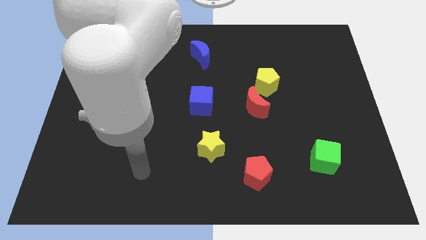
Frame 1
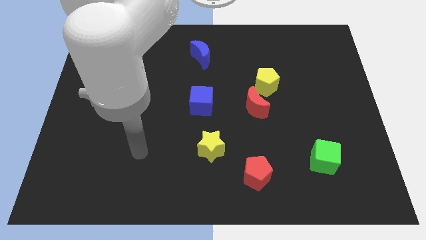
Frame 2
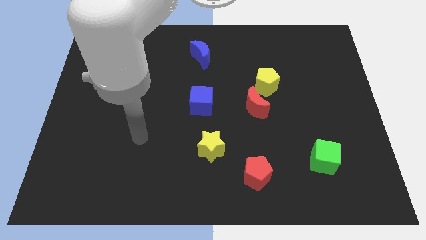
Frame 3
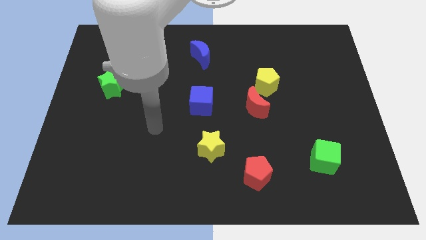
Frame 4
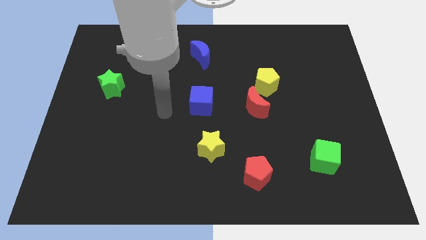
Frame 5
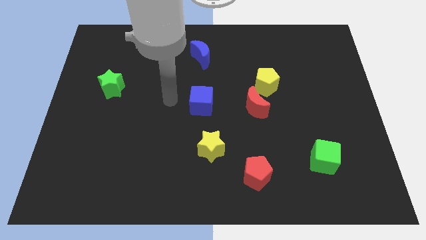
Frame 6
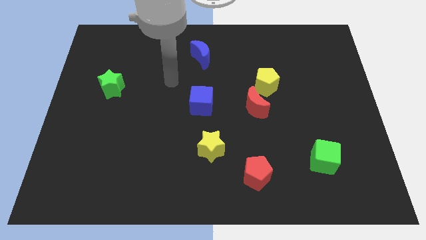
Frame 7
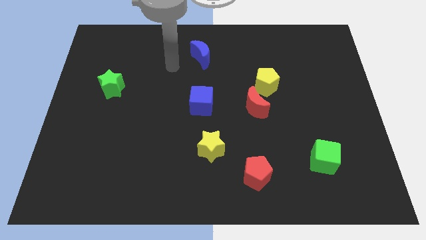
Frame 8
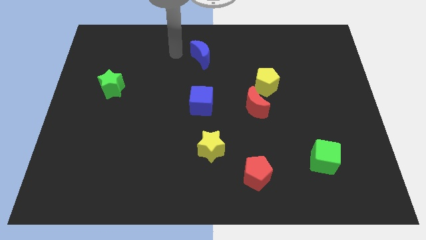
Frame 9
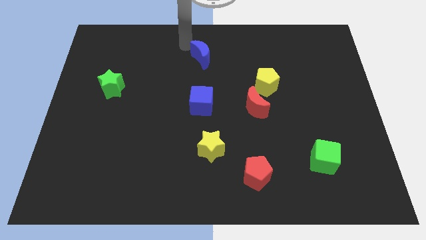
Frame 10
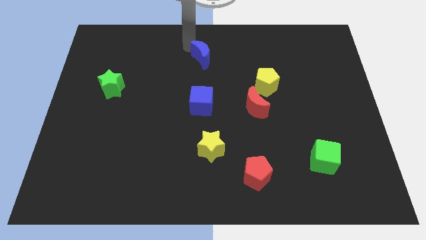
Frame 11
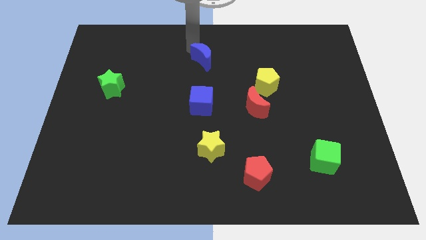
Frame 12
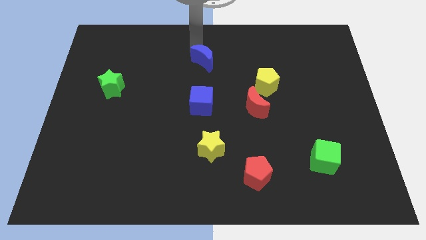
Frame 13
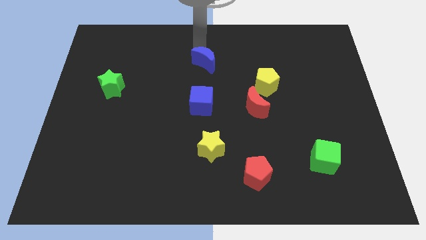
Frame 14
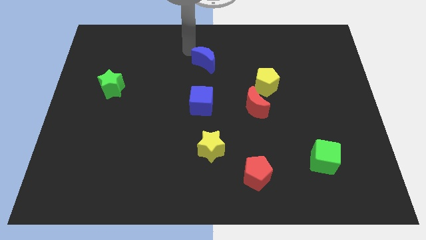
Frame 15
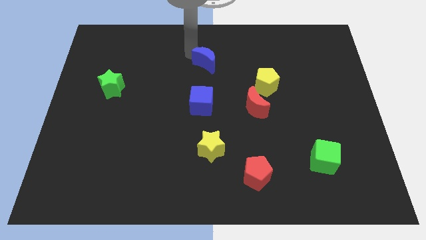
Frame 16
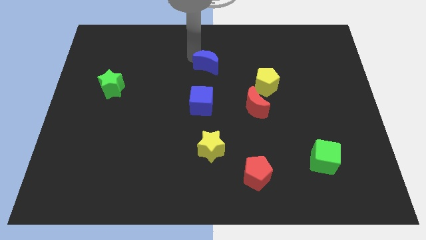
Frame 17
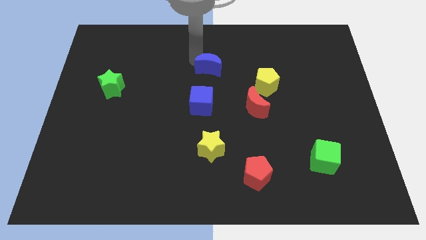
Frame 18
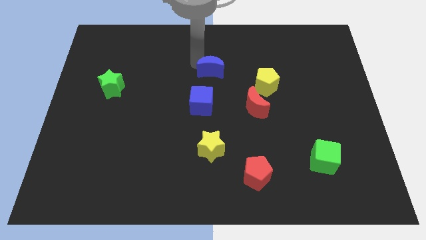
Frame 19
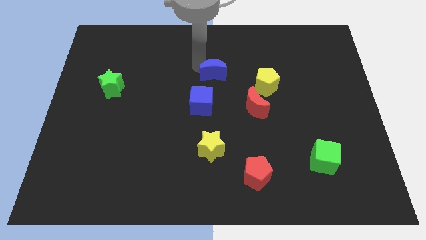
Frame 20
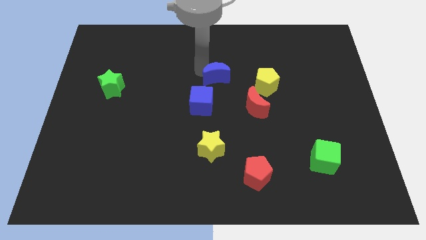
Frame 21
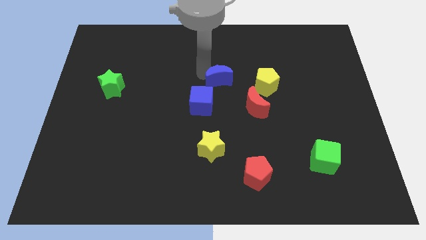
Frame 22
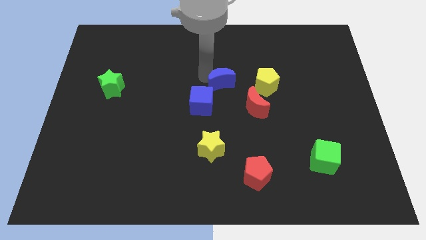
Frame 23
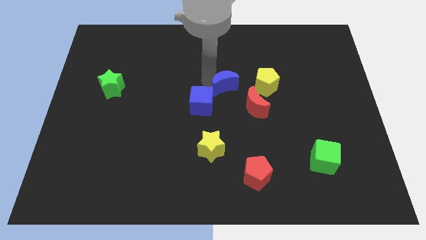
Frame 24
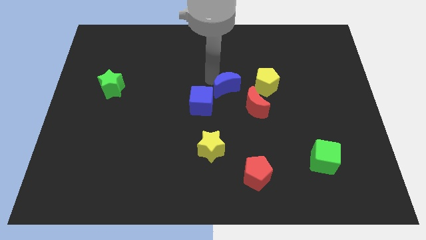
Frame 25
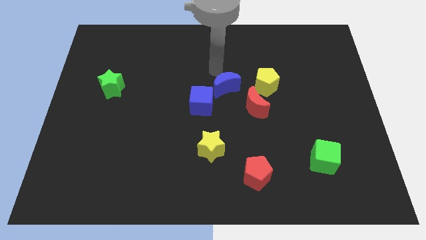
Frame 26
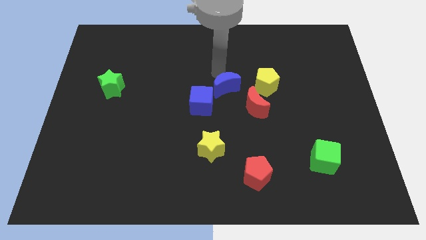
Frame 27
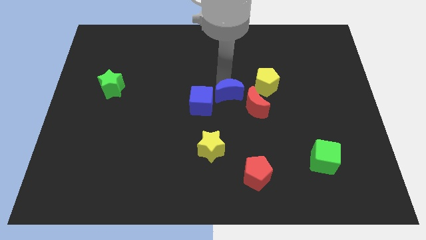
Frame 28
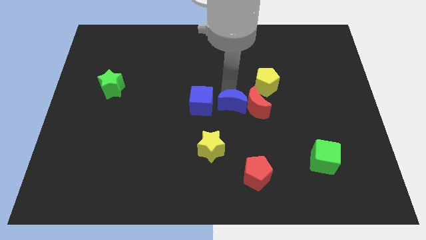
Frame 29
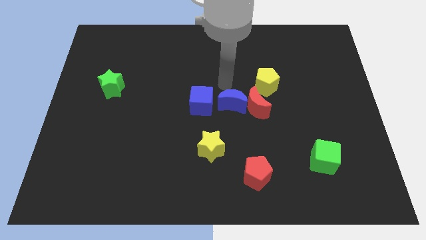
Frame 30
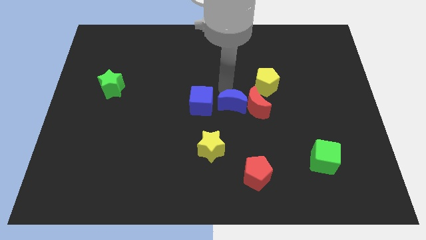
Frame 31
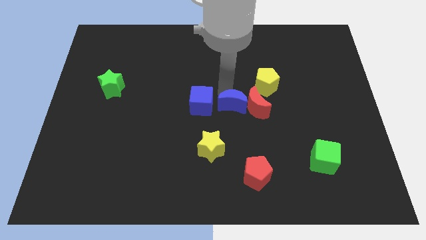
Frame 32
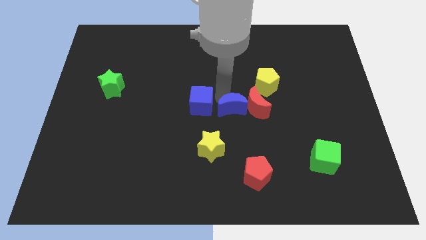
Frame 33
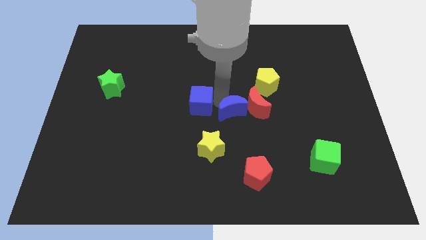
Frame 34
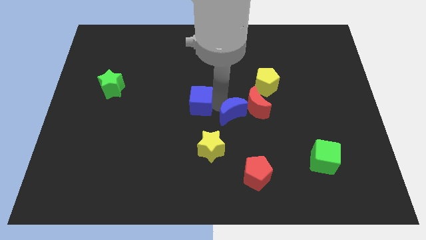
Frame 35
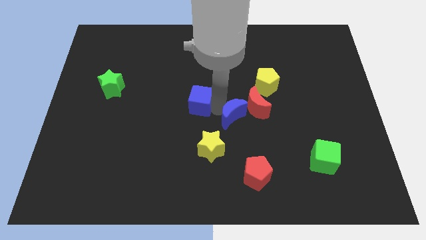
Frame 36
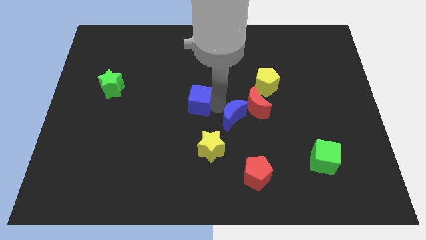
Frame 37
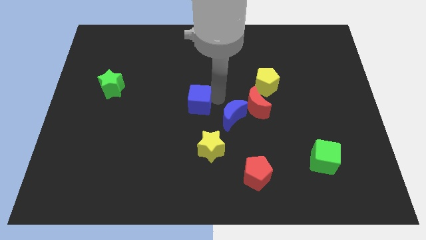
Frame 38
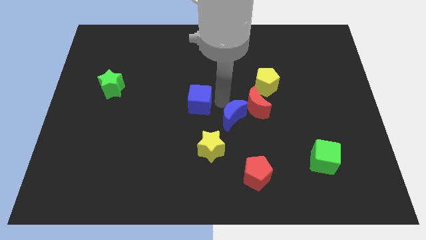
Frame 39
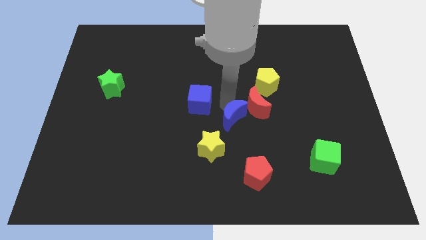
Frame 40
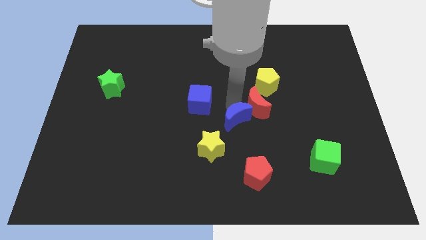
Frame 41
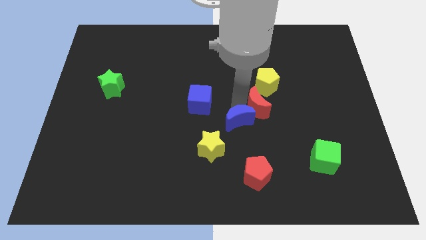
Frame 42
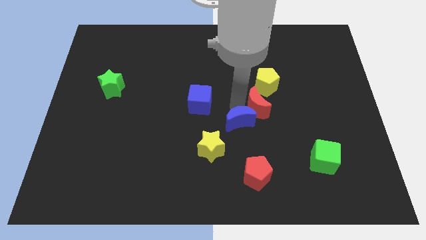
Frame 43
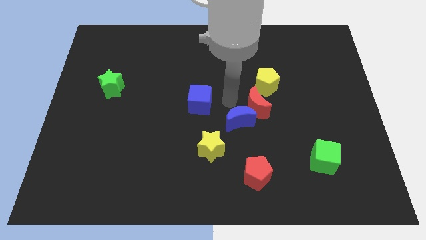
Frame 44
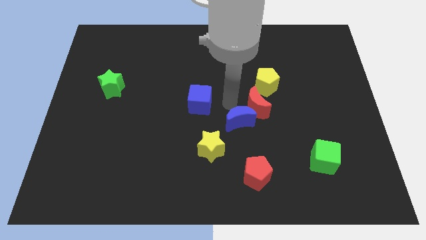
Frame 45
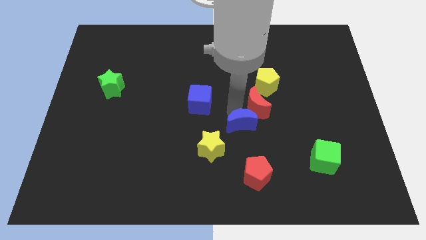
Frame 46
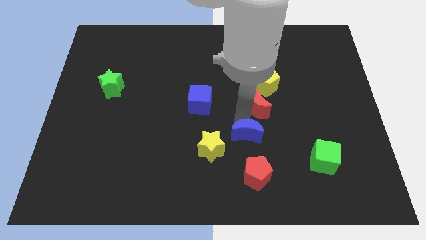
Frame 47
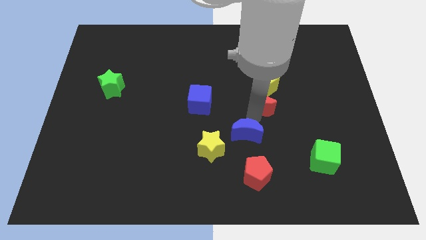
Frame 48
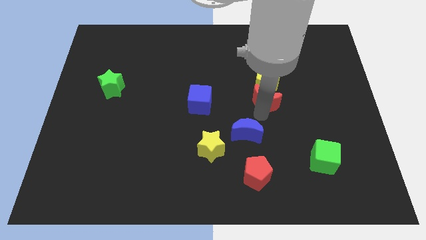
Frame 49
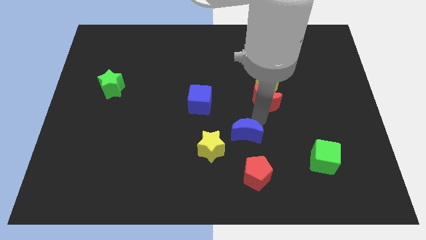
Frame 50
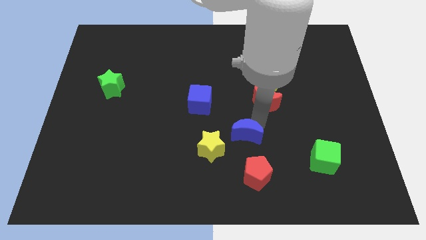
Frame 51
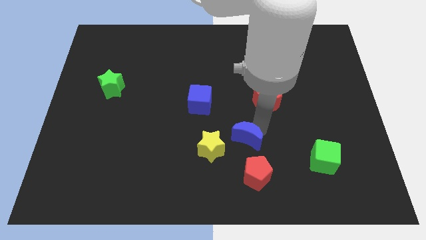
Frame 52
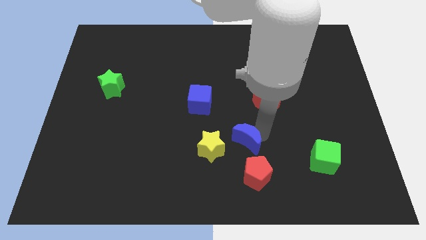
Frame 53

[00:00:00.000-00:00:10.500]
put the blue moon to the top left side of the red pentagon

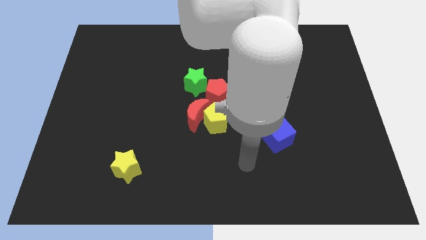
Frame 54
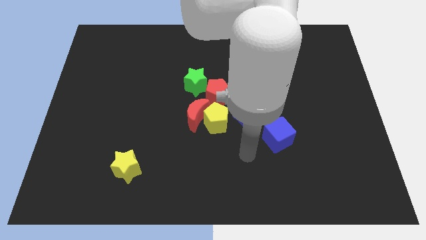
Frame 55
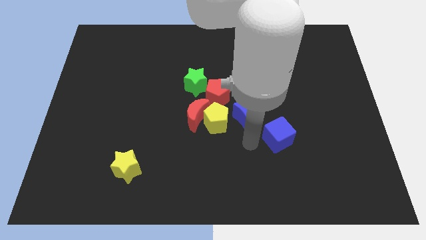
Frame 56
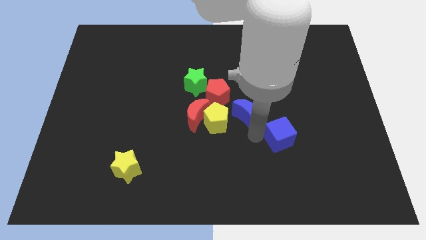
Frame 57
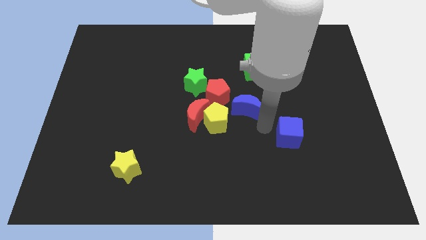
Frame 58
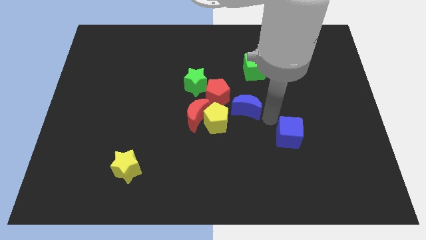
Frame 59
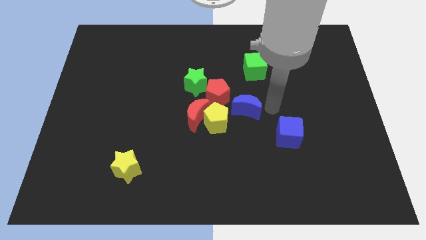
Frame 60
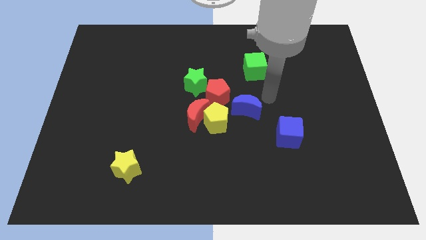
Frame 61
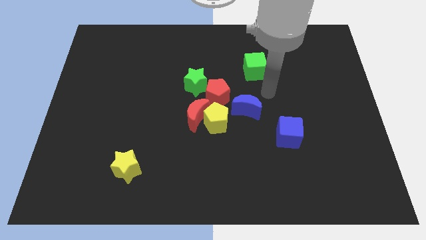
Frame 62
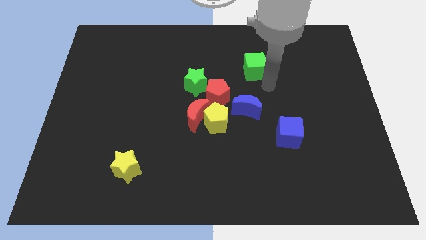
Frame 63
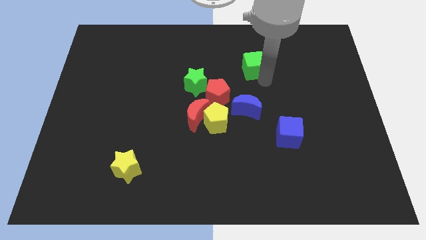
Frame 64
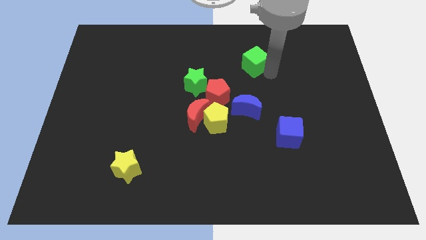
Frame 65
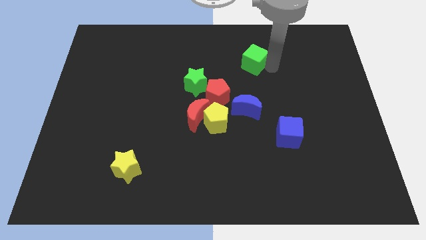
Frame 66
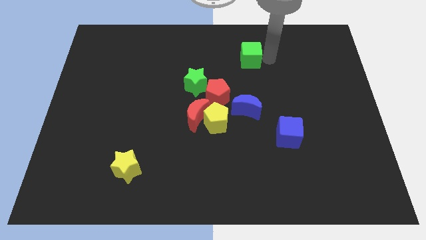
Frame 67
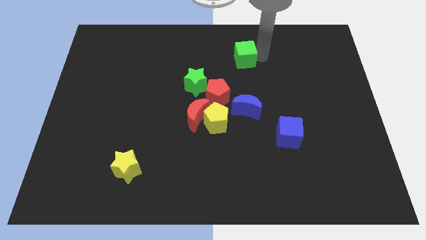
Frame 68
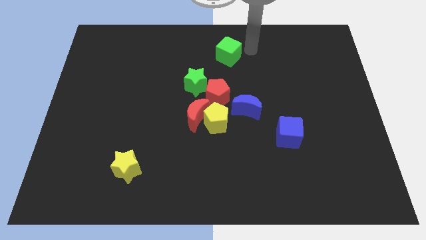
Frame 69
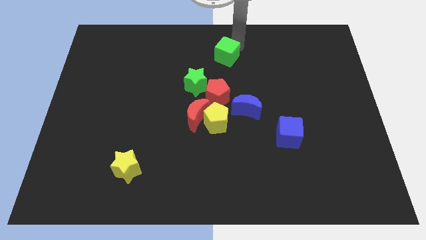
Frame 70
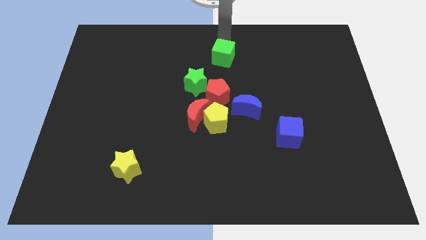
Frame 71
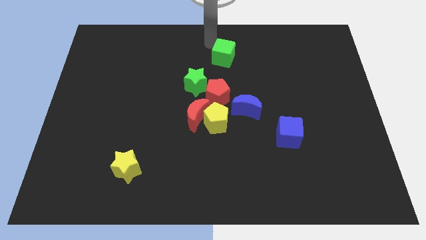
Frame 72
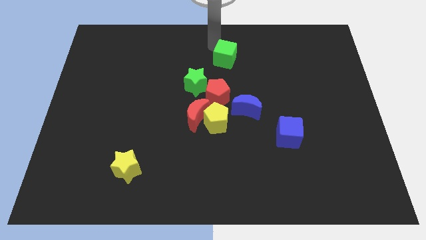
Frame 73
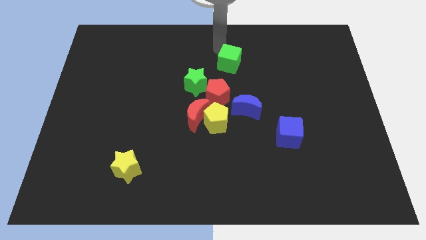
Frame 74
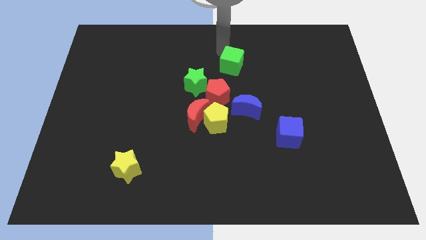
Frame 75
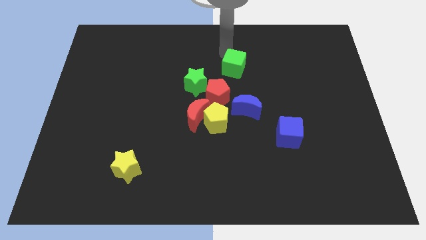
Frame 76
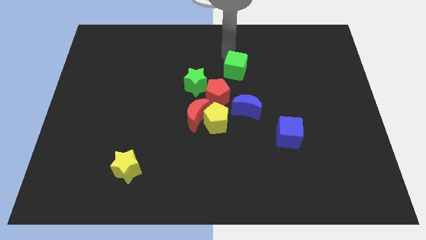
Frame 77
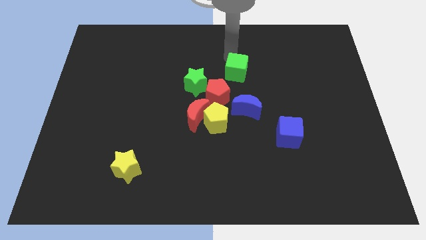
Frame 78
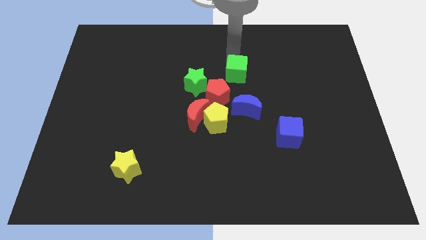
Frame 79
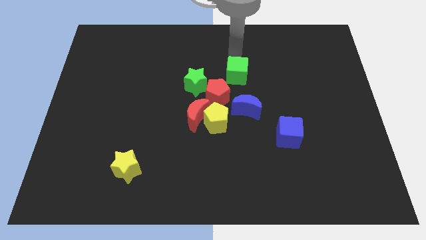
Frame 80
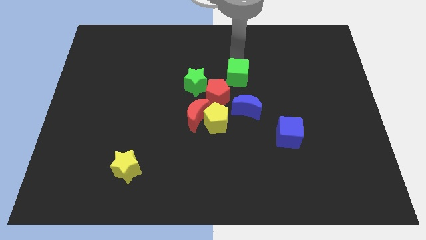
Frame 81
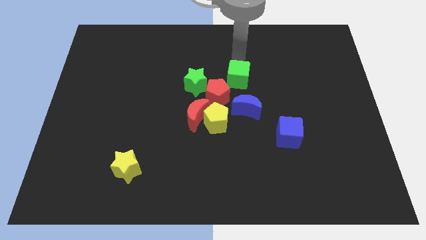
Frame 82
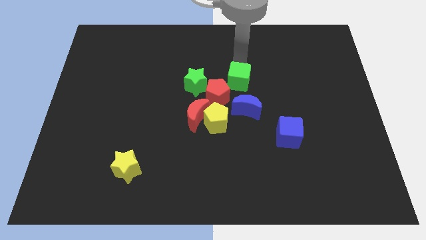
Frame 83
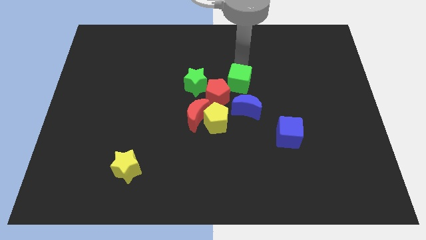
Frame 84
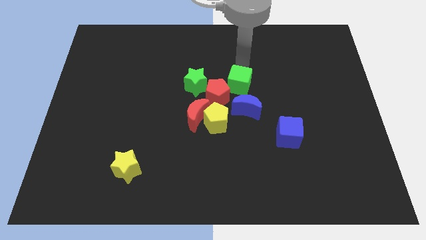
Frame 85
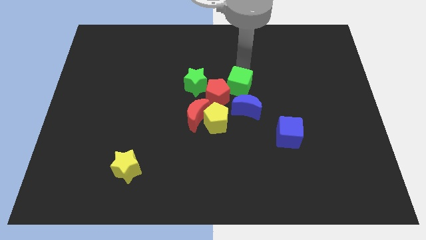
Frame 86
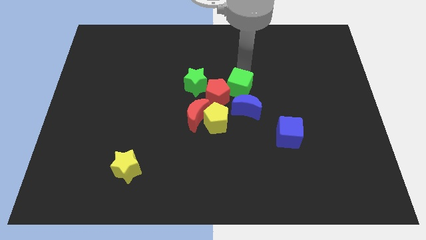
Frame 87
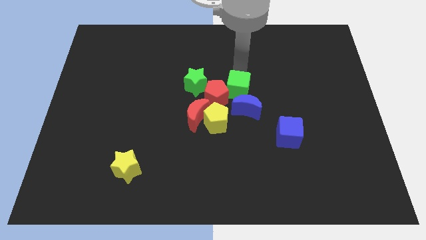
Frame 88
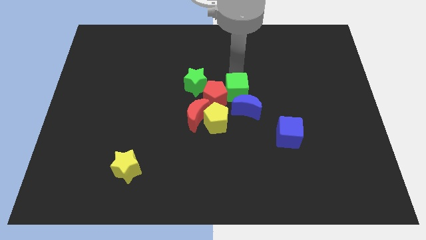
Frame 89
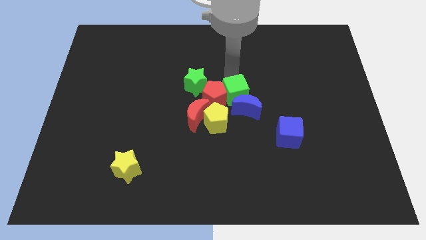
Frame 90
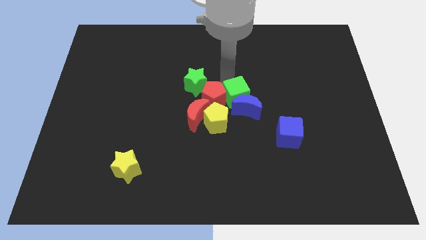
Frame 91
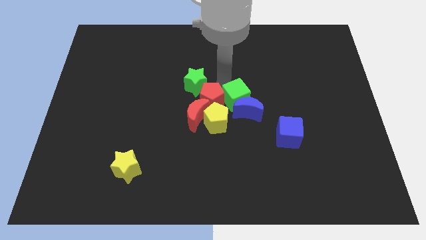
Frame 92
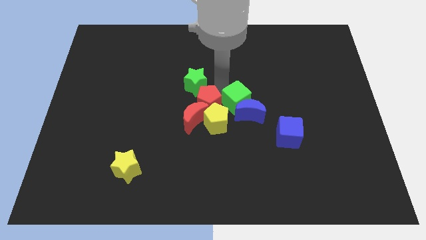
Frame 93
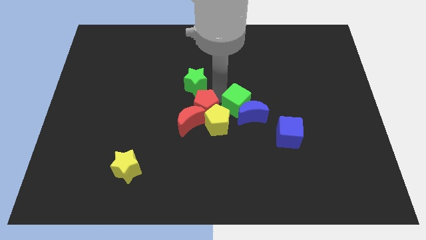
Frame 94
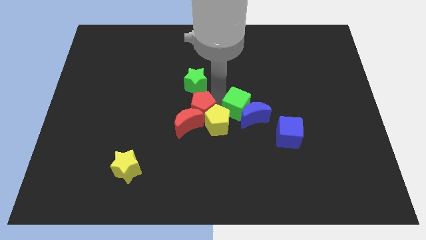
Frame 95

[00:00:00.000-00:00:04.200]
push the green cube to the right of the red moon
